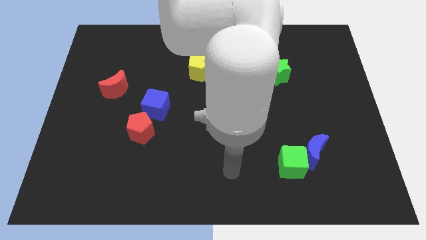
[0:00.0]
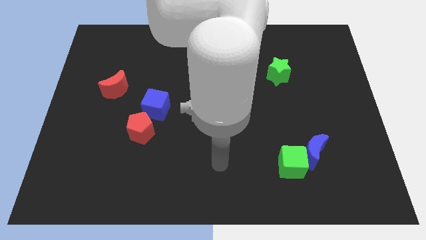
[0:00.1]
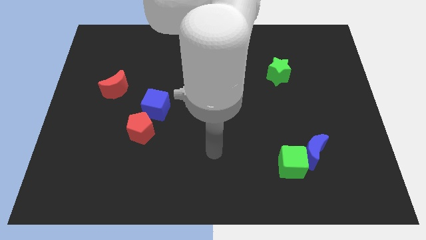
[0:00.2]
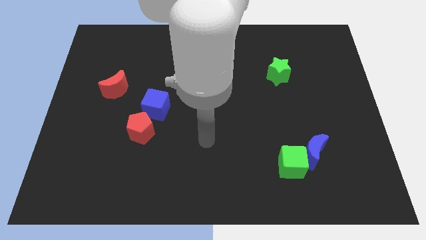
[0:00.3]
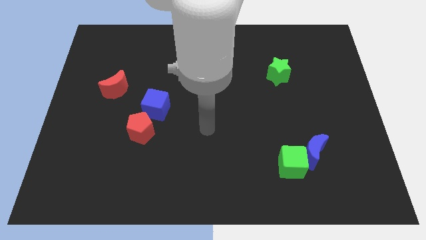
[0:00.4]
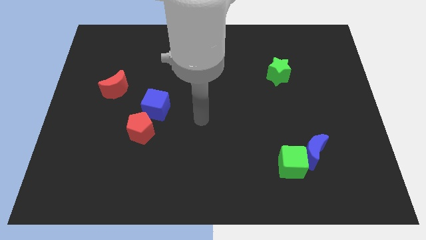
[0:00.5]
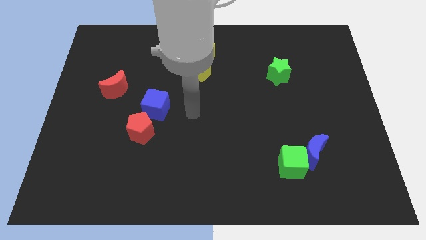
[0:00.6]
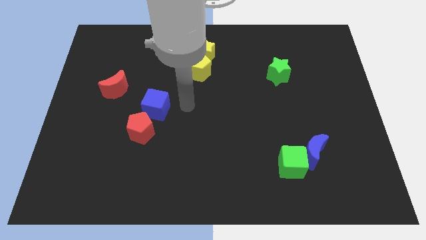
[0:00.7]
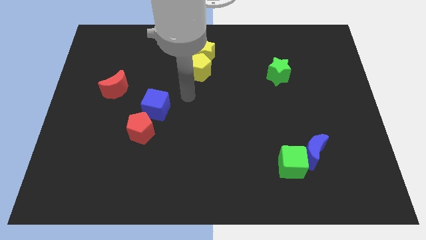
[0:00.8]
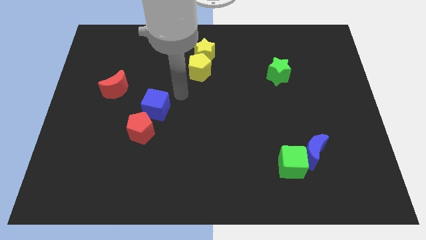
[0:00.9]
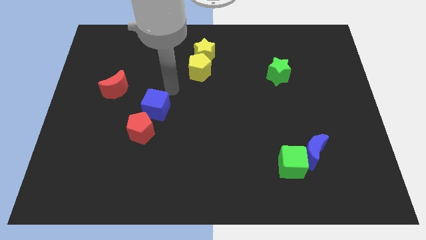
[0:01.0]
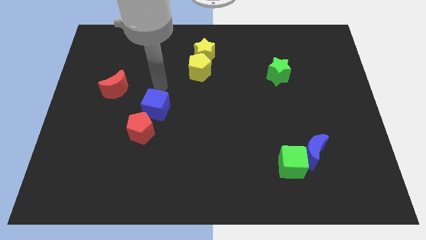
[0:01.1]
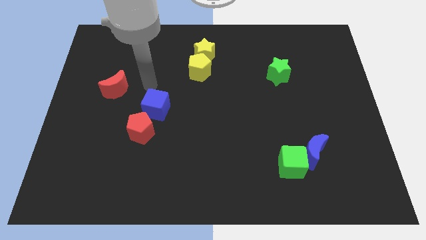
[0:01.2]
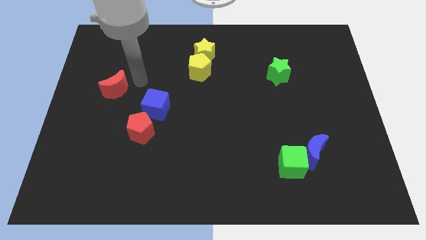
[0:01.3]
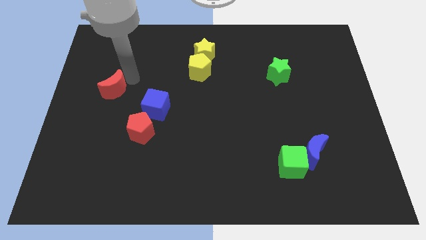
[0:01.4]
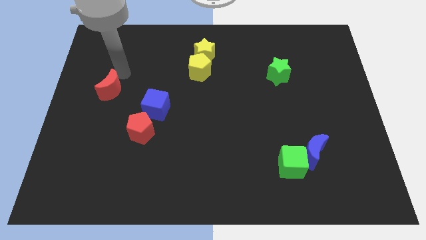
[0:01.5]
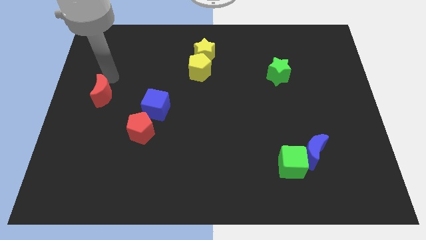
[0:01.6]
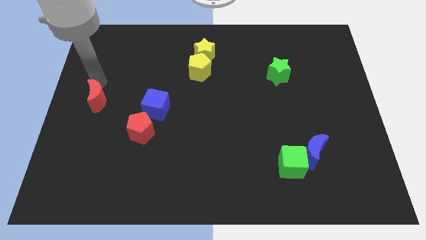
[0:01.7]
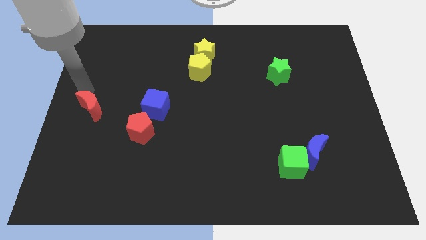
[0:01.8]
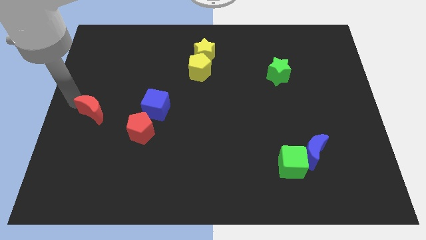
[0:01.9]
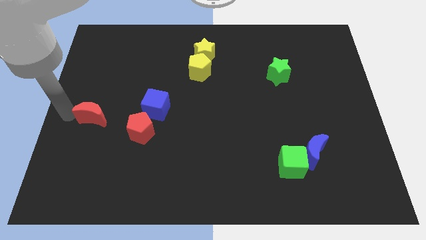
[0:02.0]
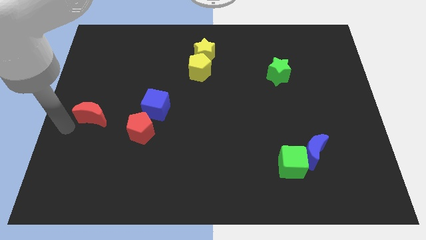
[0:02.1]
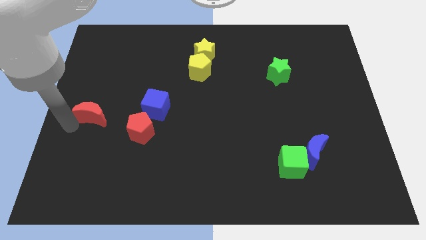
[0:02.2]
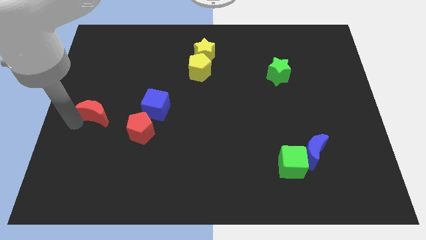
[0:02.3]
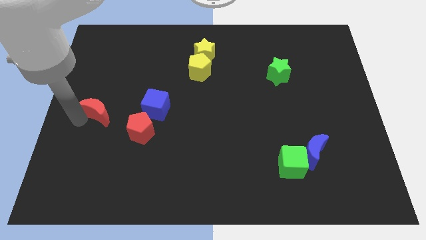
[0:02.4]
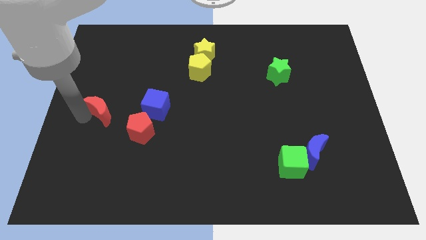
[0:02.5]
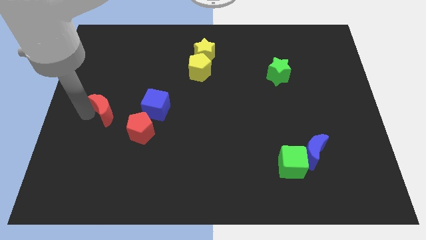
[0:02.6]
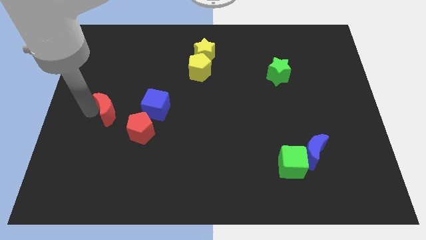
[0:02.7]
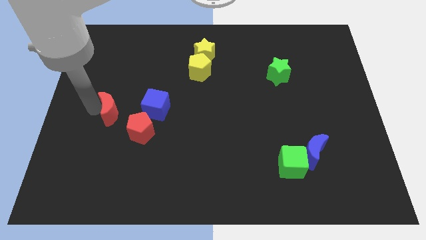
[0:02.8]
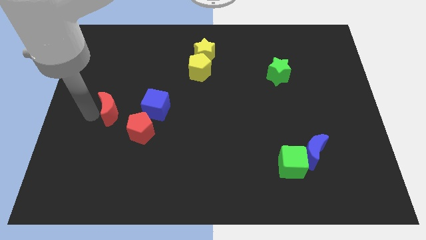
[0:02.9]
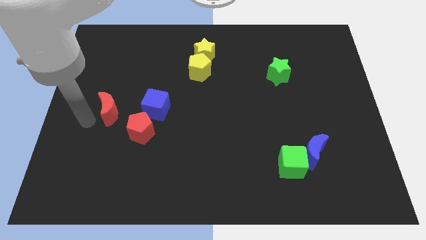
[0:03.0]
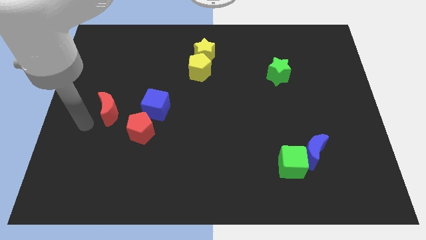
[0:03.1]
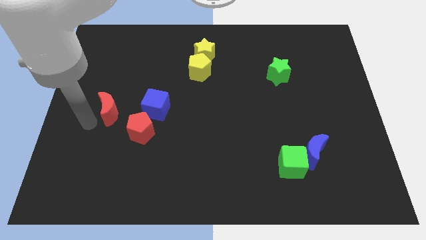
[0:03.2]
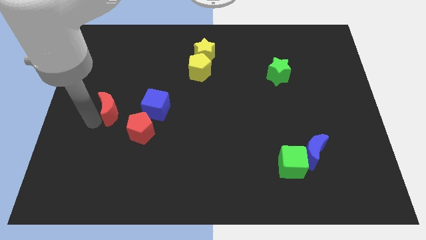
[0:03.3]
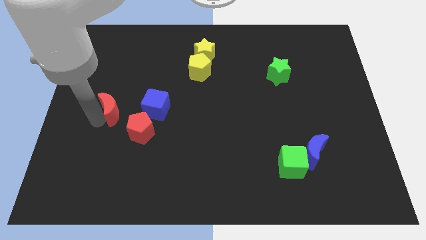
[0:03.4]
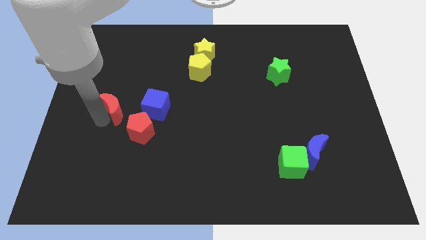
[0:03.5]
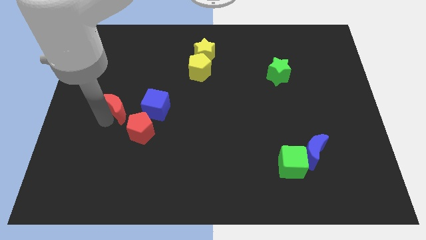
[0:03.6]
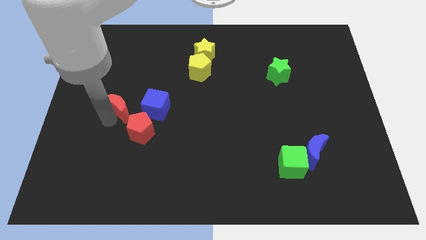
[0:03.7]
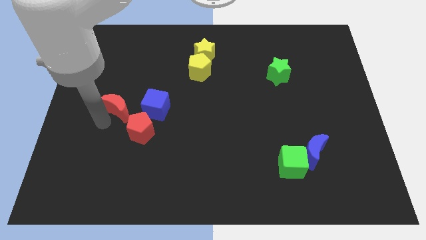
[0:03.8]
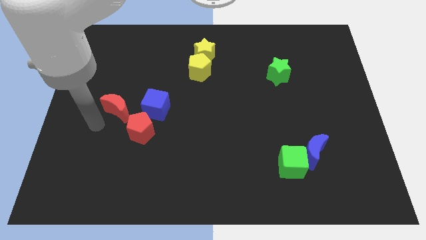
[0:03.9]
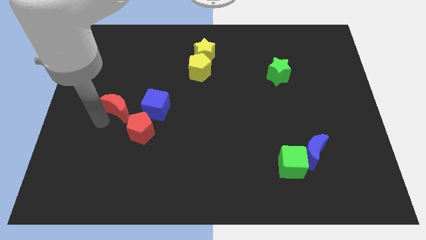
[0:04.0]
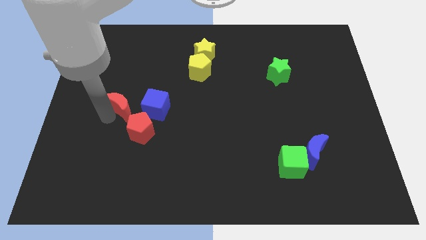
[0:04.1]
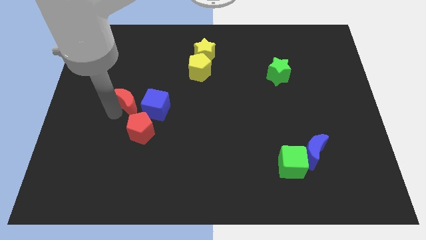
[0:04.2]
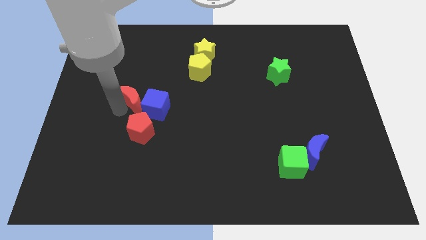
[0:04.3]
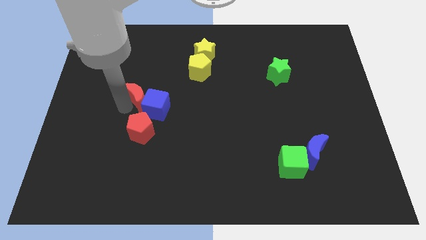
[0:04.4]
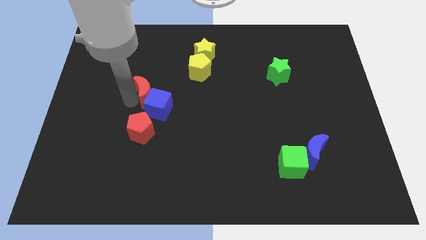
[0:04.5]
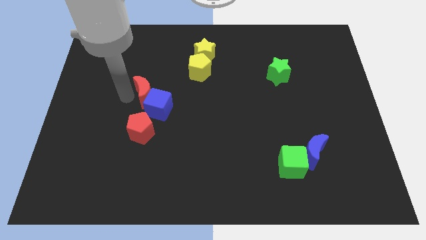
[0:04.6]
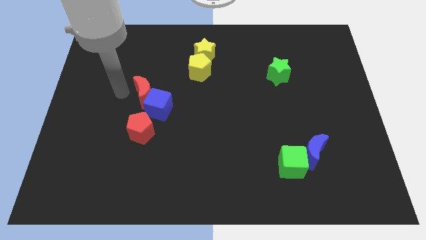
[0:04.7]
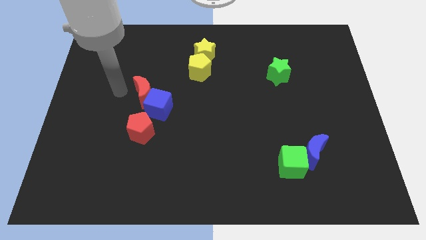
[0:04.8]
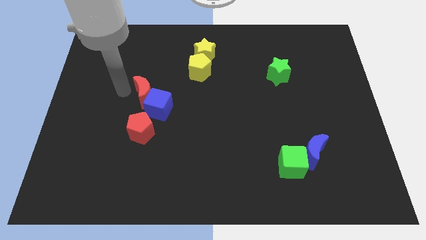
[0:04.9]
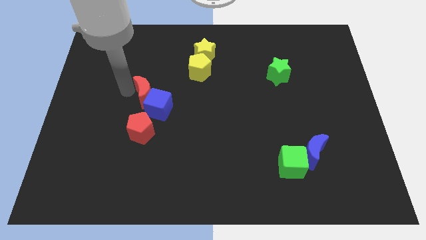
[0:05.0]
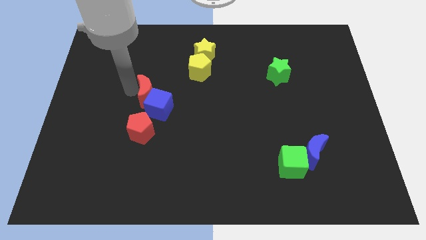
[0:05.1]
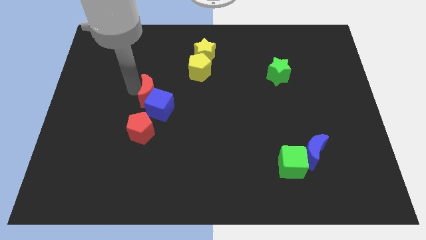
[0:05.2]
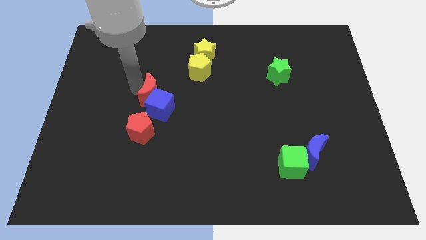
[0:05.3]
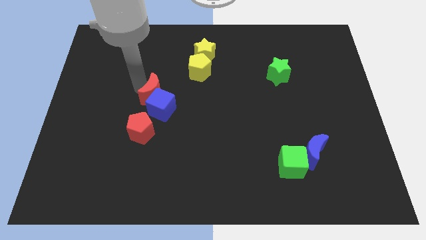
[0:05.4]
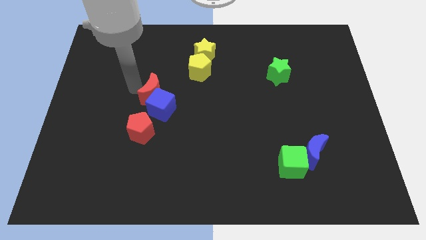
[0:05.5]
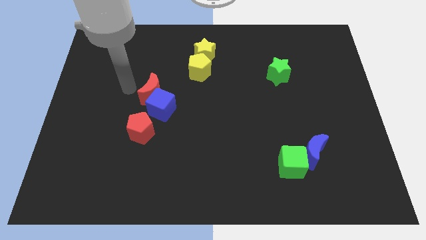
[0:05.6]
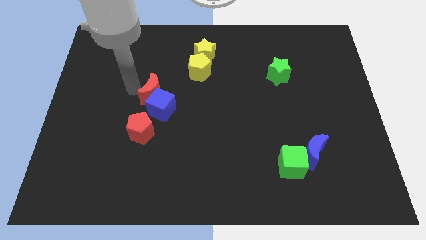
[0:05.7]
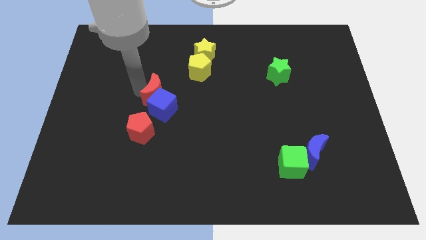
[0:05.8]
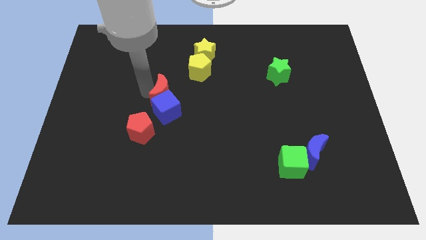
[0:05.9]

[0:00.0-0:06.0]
put the red moon to the middle

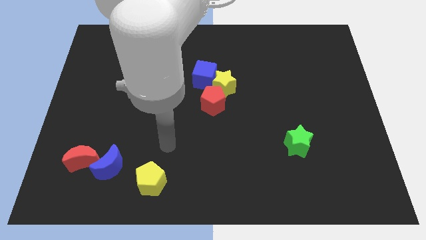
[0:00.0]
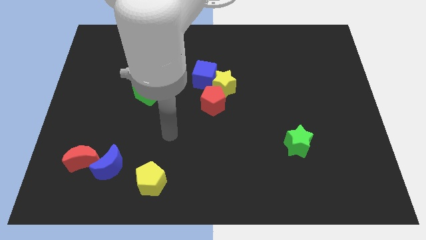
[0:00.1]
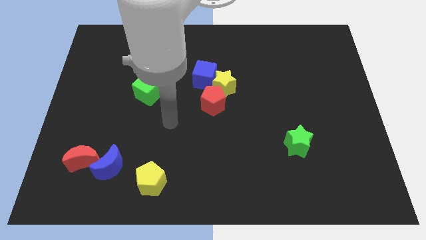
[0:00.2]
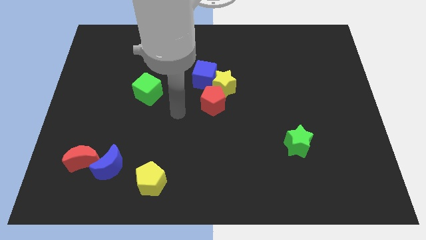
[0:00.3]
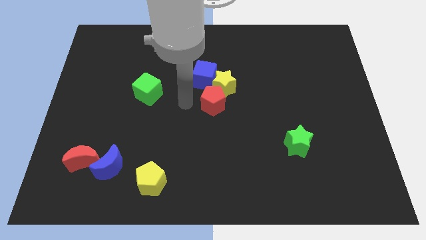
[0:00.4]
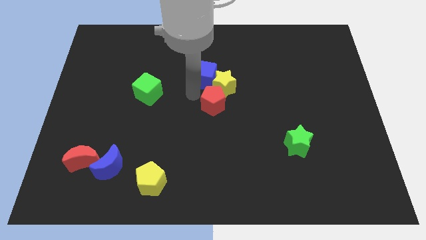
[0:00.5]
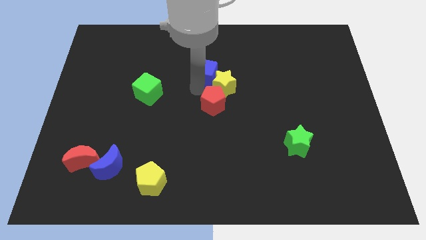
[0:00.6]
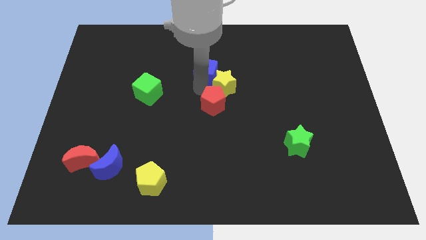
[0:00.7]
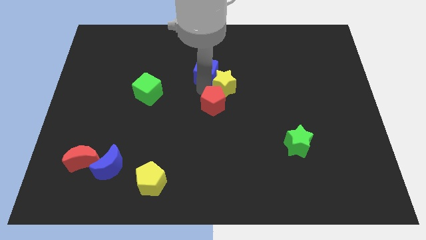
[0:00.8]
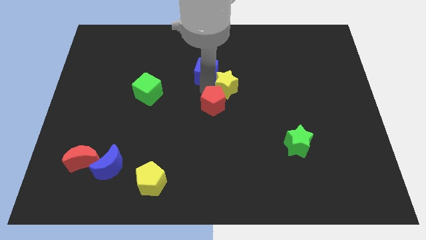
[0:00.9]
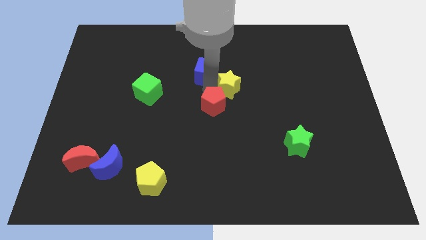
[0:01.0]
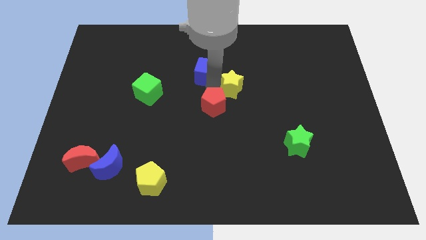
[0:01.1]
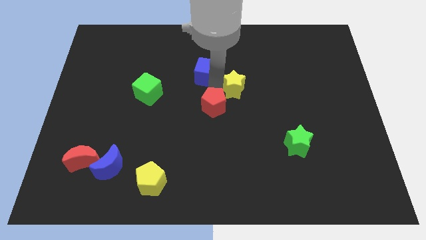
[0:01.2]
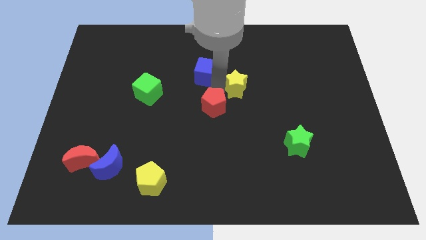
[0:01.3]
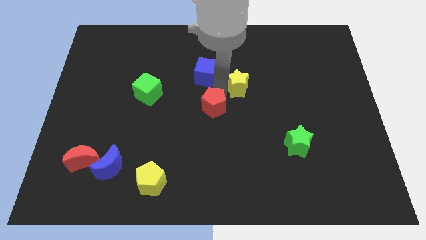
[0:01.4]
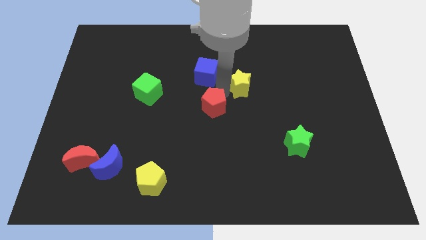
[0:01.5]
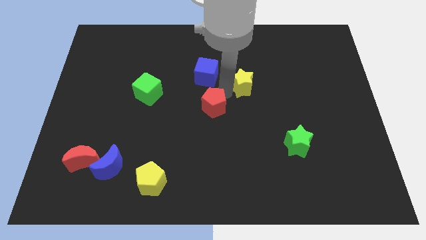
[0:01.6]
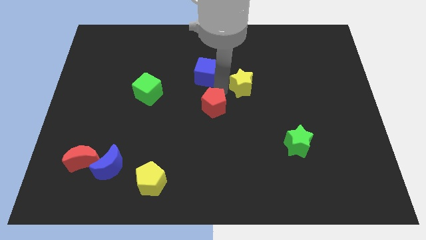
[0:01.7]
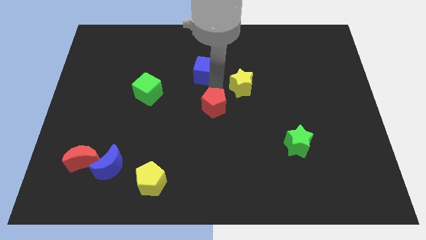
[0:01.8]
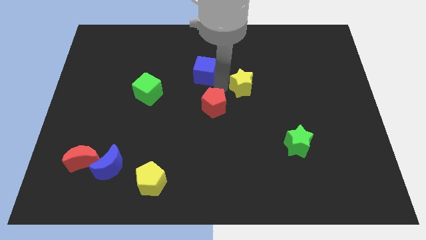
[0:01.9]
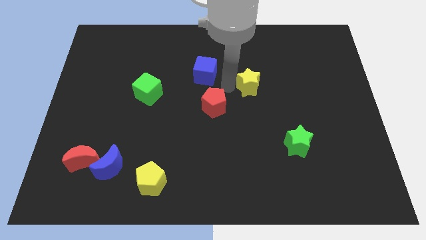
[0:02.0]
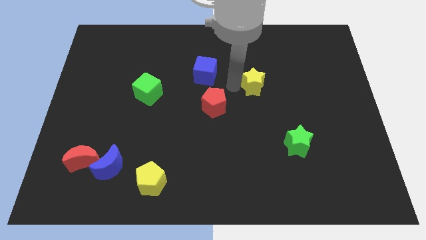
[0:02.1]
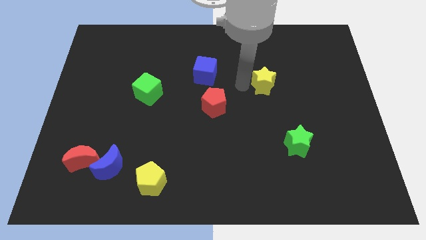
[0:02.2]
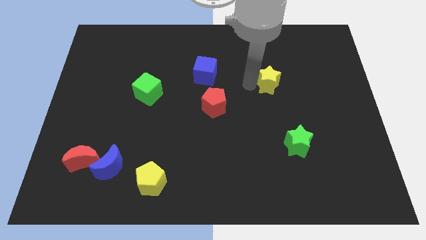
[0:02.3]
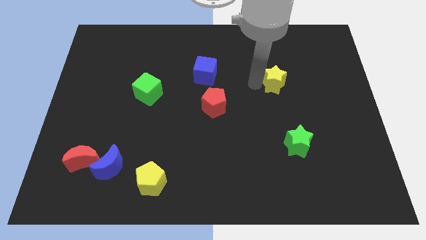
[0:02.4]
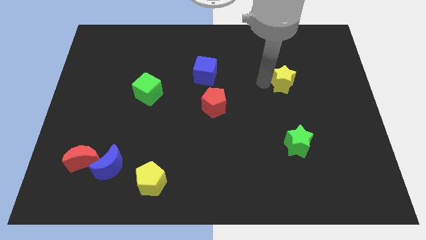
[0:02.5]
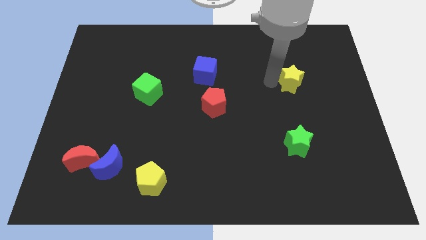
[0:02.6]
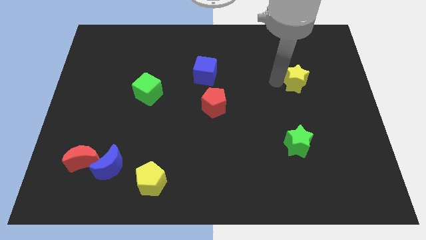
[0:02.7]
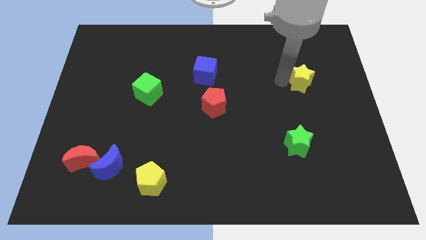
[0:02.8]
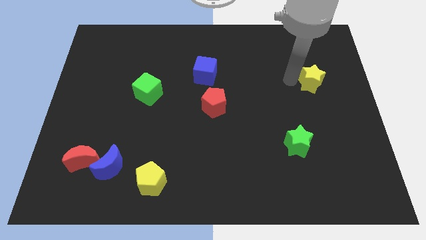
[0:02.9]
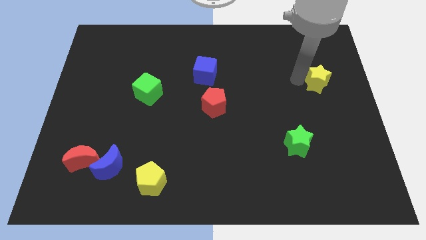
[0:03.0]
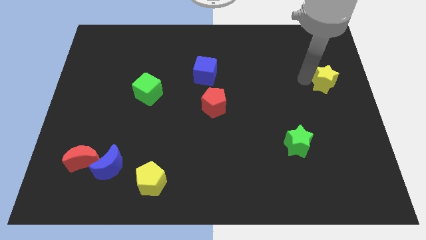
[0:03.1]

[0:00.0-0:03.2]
move the yellow star to the right side
